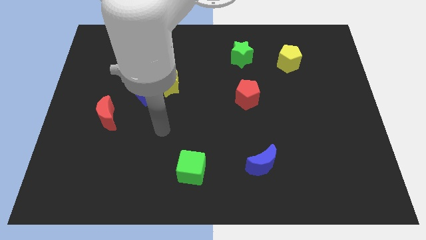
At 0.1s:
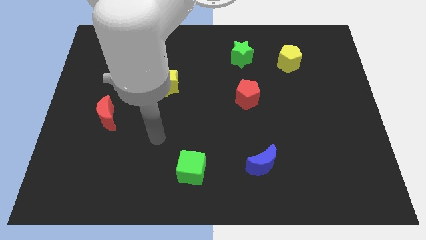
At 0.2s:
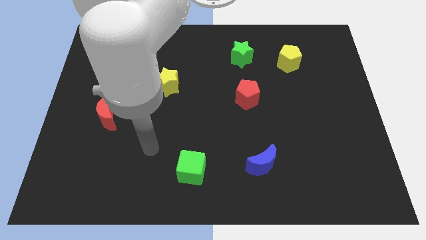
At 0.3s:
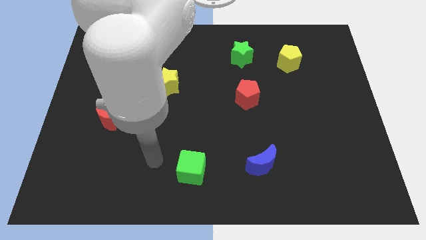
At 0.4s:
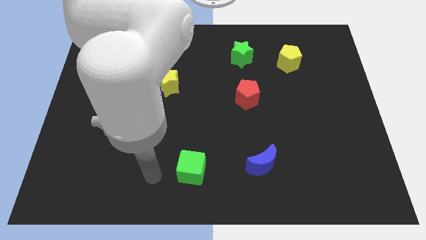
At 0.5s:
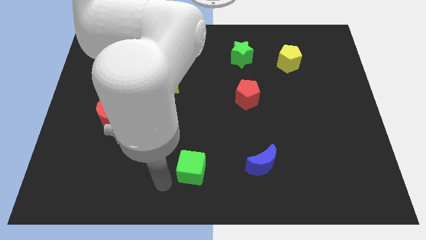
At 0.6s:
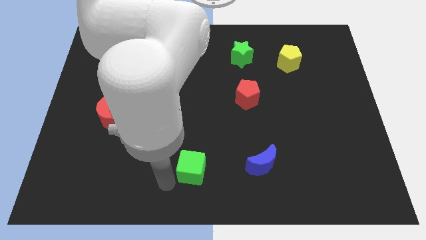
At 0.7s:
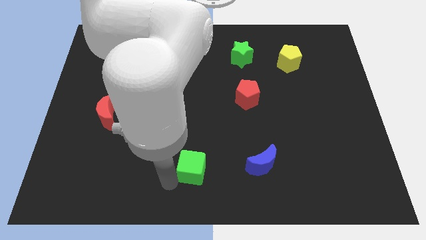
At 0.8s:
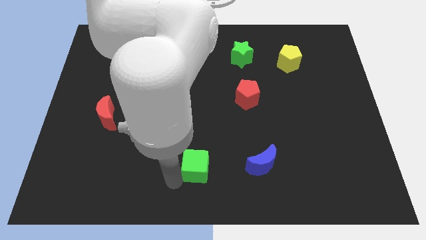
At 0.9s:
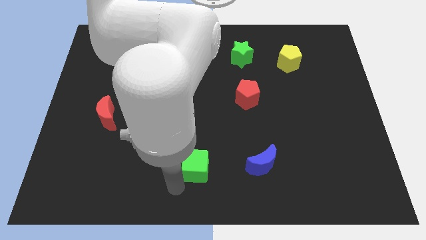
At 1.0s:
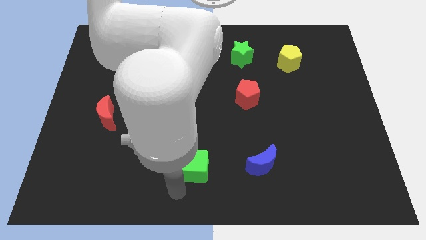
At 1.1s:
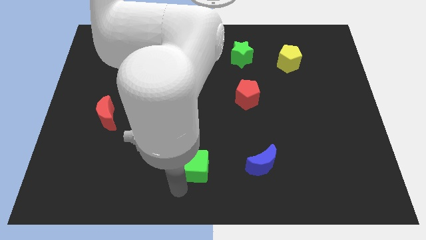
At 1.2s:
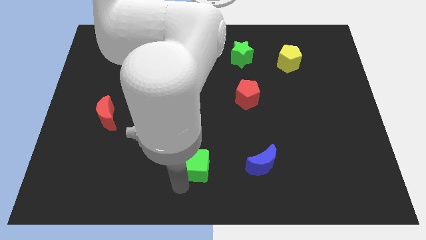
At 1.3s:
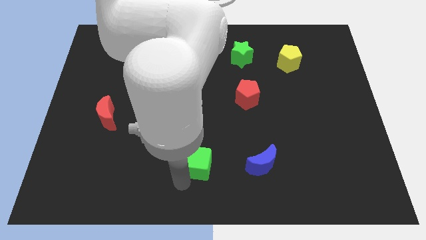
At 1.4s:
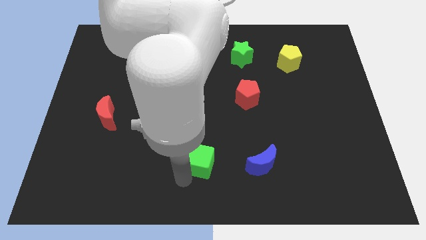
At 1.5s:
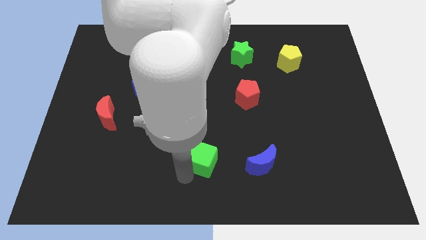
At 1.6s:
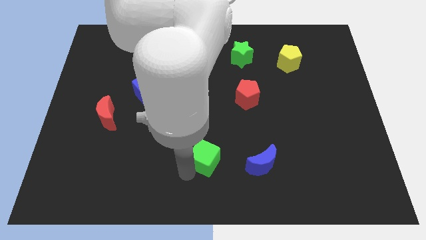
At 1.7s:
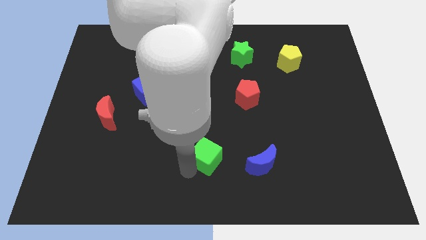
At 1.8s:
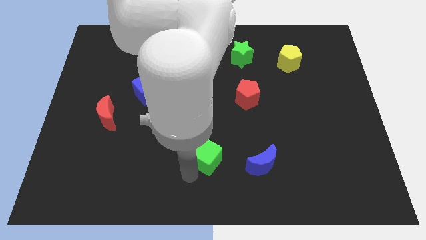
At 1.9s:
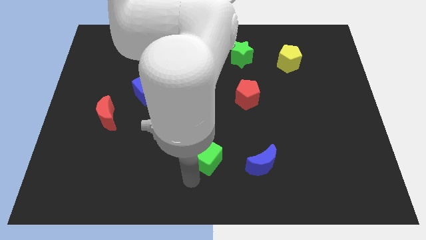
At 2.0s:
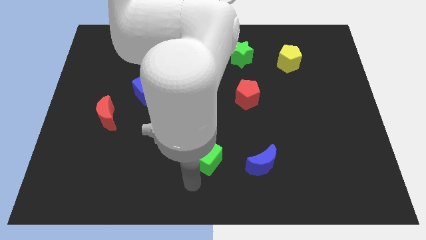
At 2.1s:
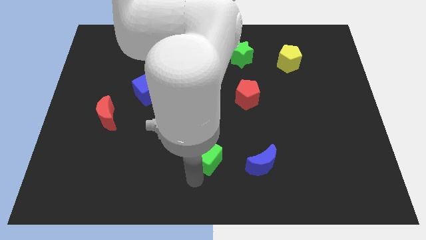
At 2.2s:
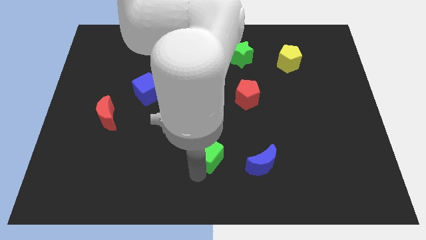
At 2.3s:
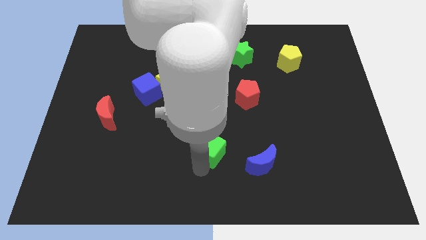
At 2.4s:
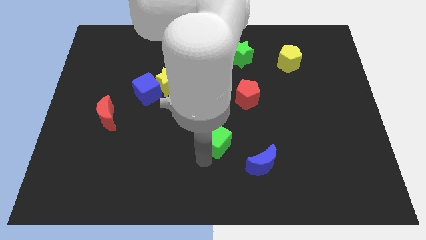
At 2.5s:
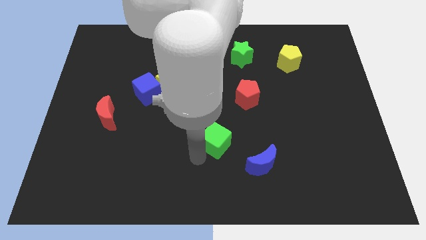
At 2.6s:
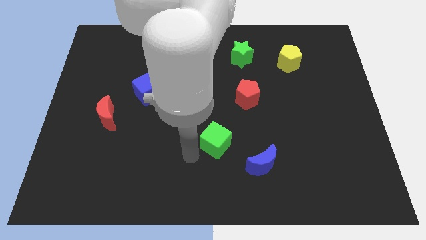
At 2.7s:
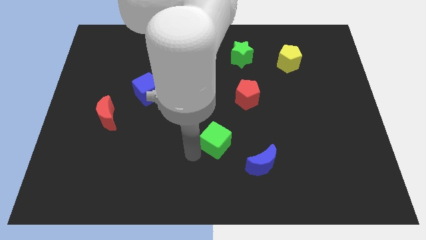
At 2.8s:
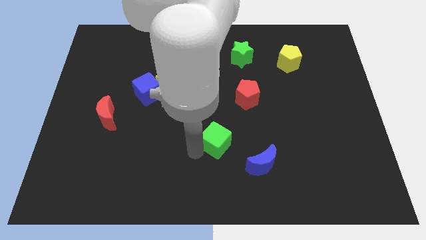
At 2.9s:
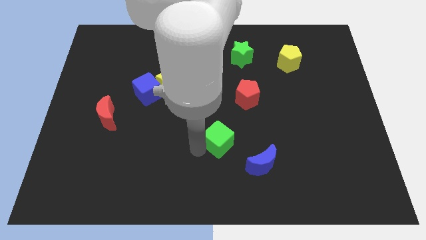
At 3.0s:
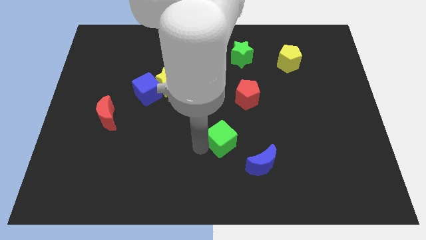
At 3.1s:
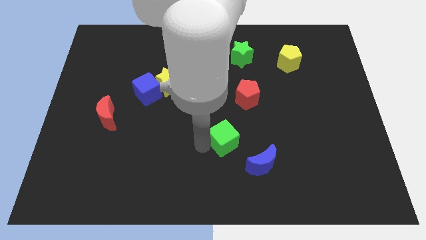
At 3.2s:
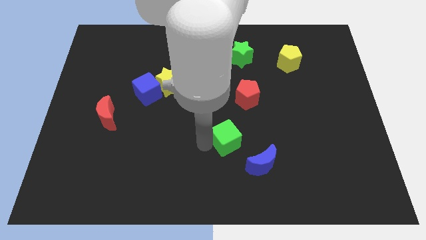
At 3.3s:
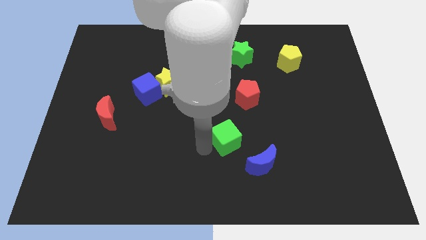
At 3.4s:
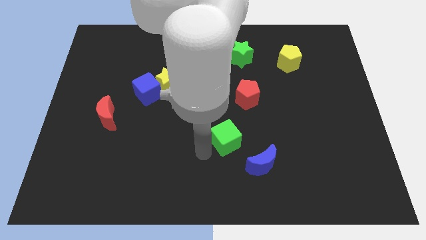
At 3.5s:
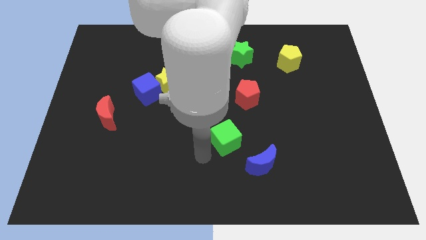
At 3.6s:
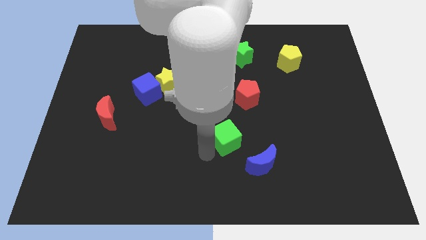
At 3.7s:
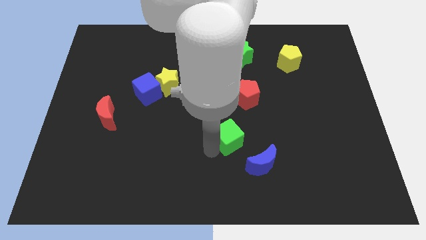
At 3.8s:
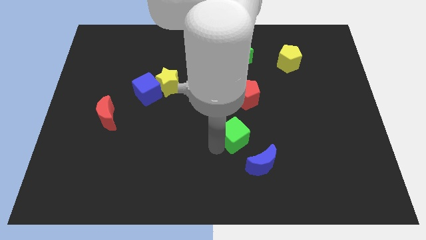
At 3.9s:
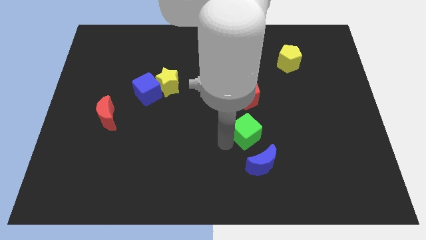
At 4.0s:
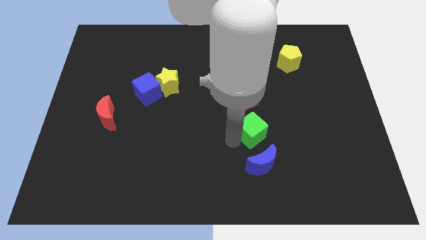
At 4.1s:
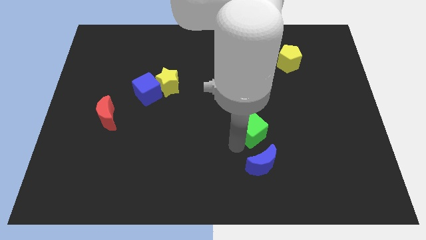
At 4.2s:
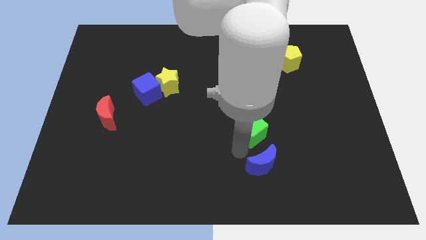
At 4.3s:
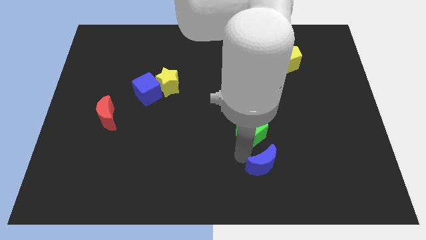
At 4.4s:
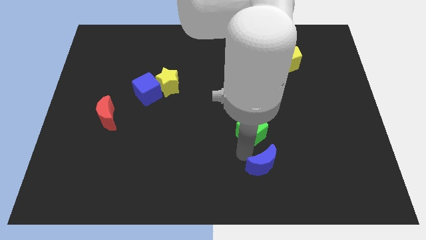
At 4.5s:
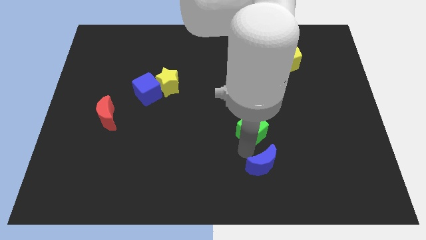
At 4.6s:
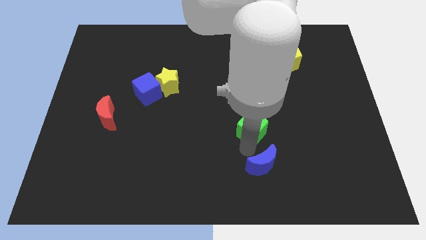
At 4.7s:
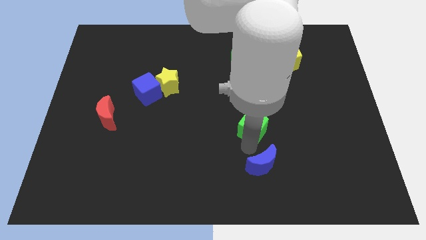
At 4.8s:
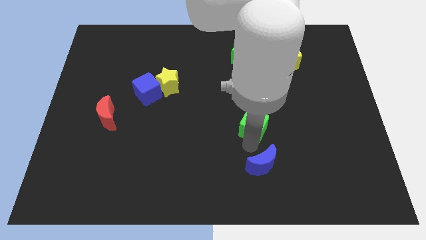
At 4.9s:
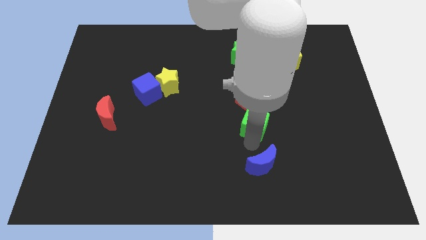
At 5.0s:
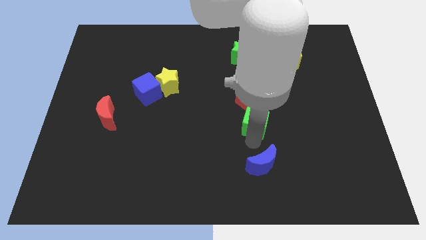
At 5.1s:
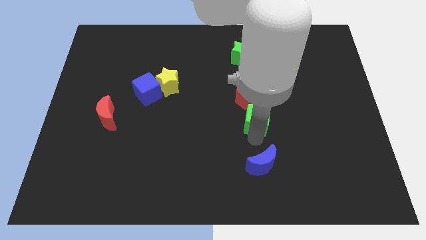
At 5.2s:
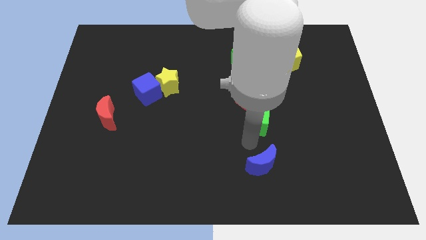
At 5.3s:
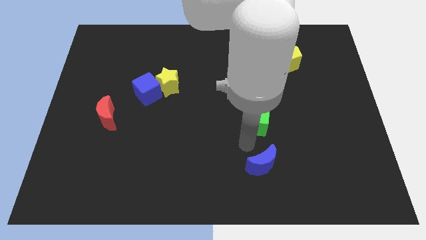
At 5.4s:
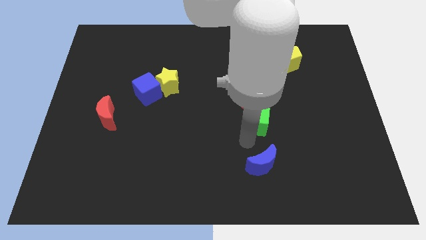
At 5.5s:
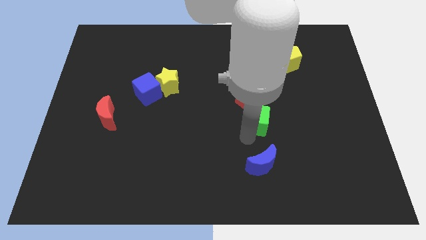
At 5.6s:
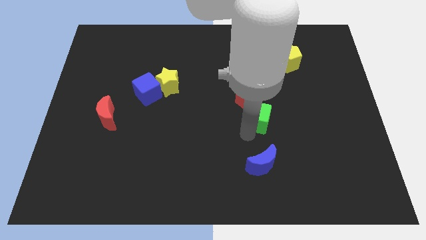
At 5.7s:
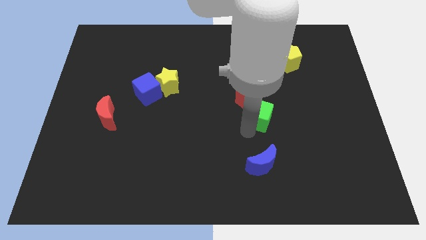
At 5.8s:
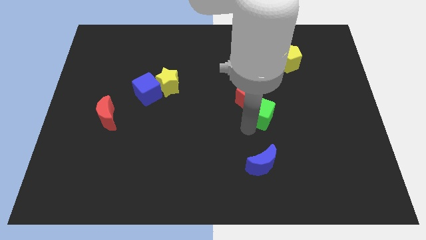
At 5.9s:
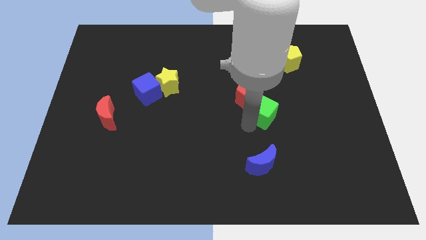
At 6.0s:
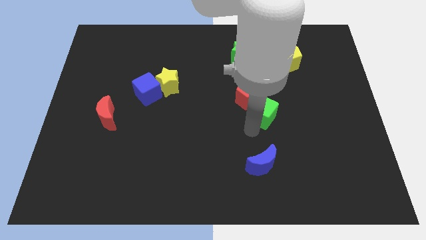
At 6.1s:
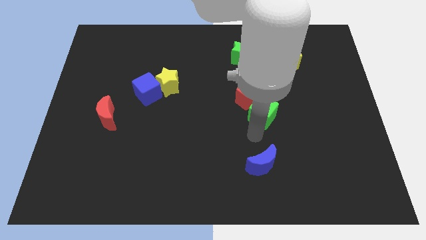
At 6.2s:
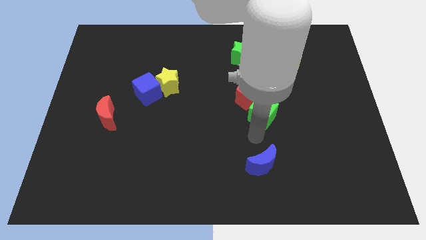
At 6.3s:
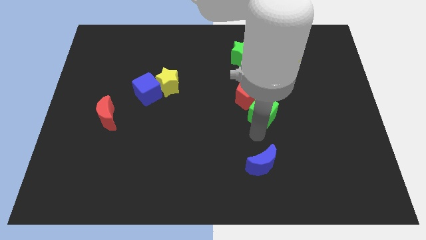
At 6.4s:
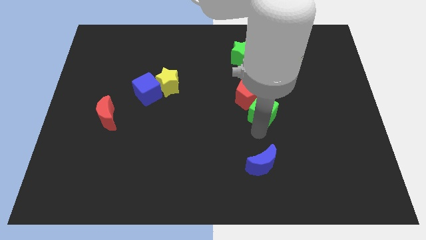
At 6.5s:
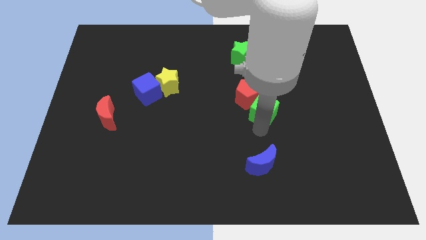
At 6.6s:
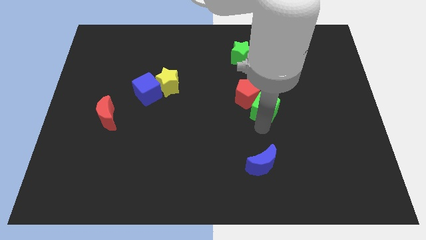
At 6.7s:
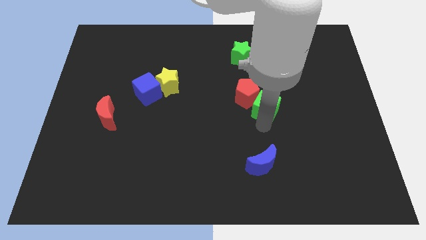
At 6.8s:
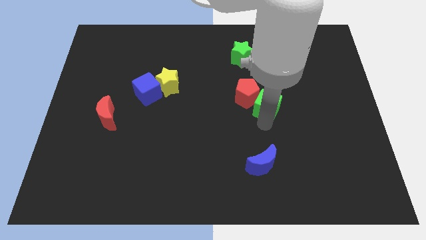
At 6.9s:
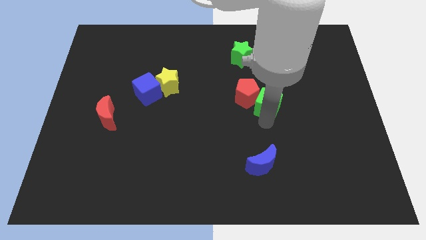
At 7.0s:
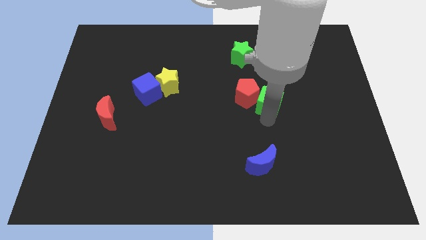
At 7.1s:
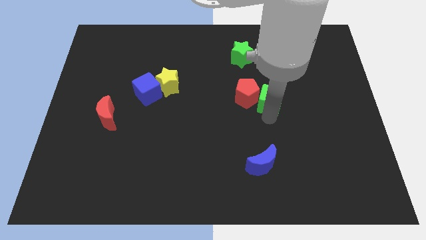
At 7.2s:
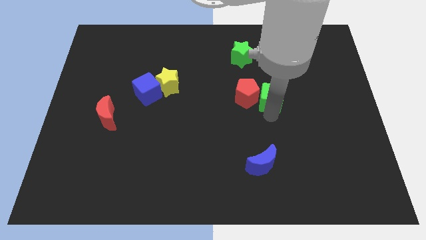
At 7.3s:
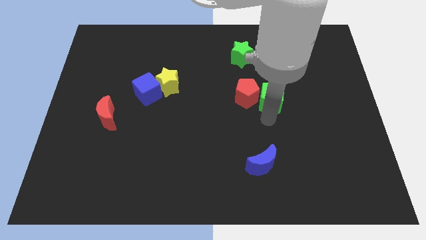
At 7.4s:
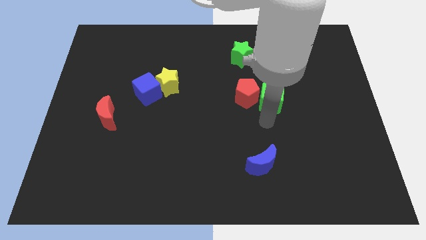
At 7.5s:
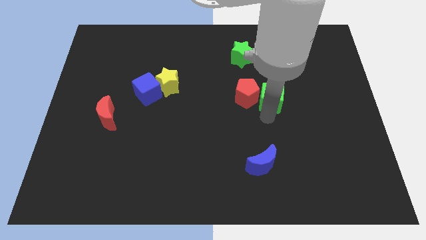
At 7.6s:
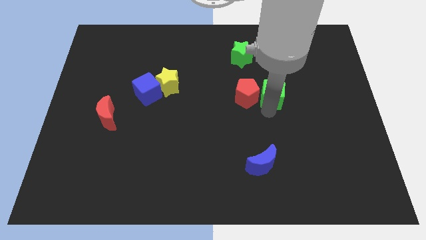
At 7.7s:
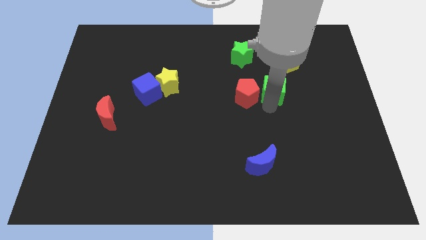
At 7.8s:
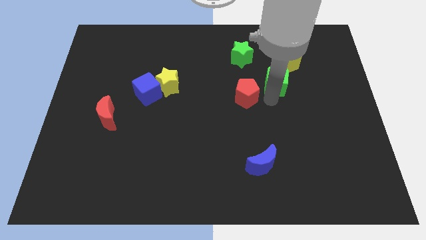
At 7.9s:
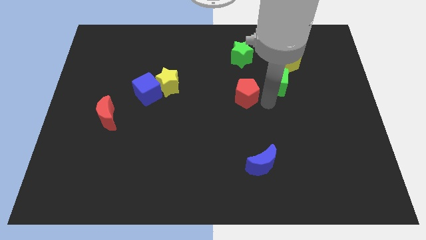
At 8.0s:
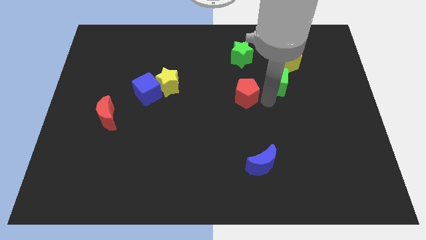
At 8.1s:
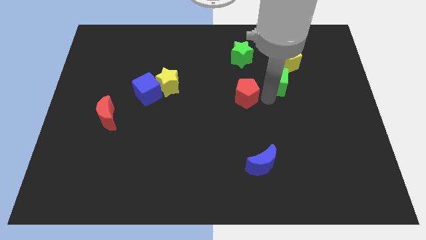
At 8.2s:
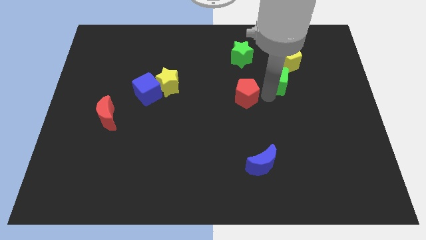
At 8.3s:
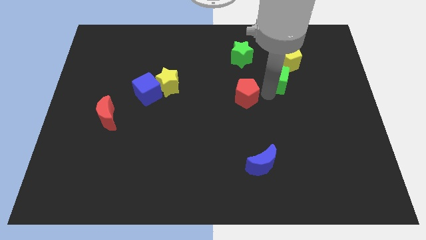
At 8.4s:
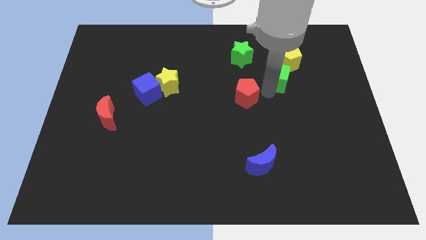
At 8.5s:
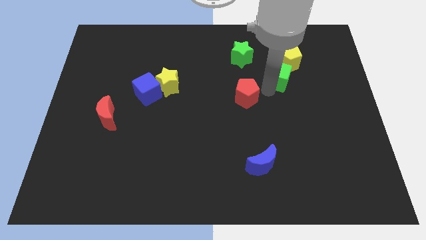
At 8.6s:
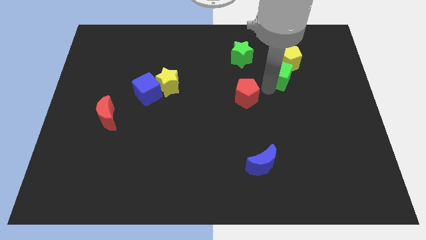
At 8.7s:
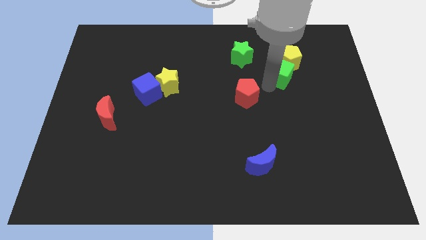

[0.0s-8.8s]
slide the green cube towards the yellow pentagon
